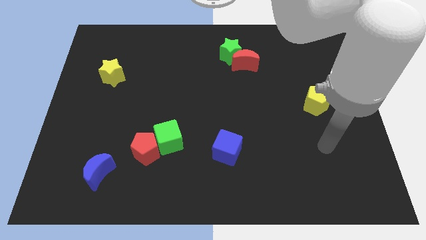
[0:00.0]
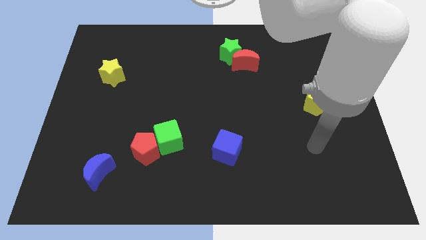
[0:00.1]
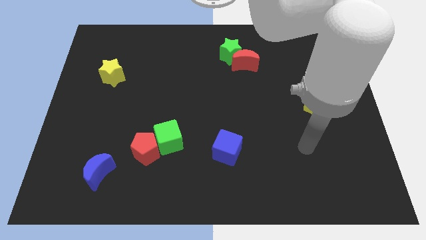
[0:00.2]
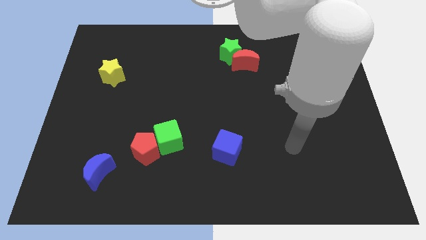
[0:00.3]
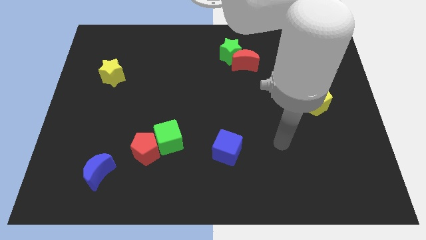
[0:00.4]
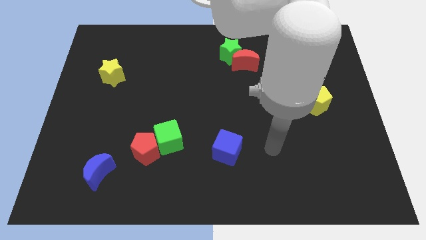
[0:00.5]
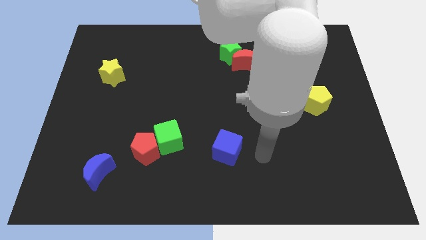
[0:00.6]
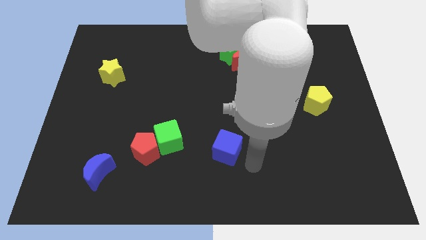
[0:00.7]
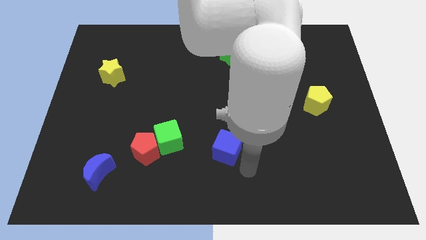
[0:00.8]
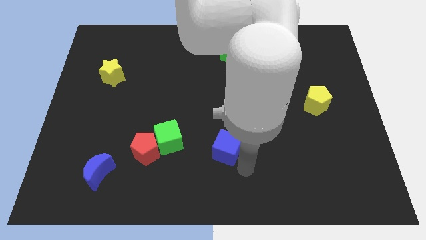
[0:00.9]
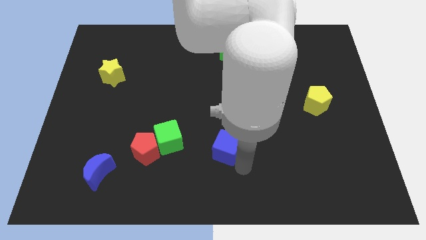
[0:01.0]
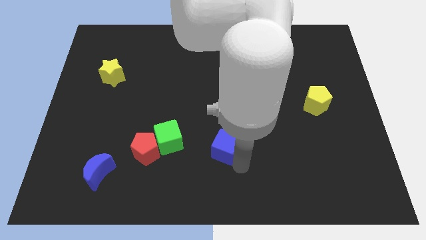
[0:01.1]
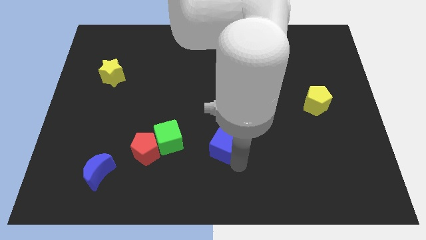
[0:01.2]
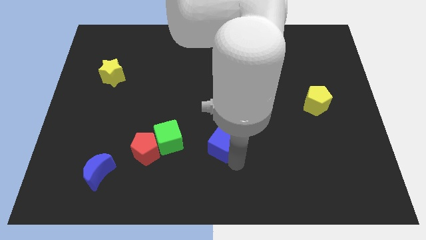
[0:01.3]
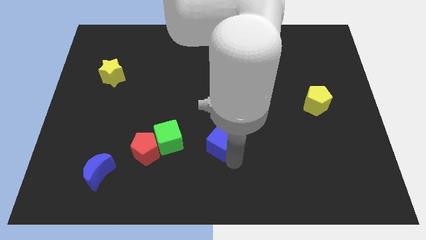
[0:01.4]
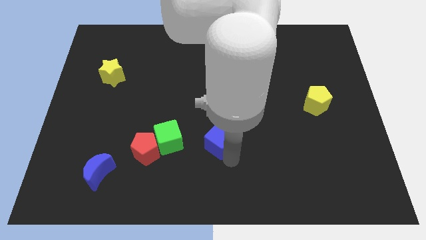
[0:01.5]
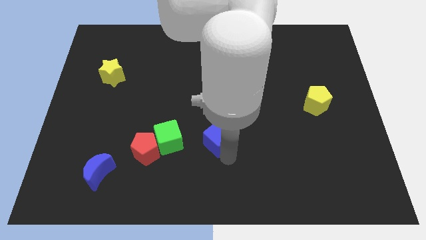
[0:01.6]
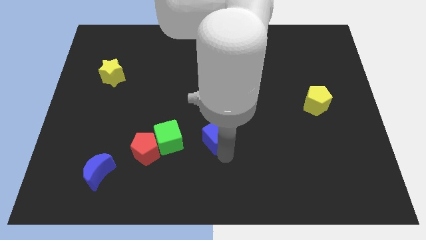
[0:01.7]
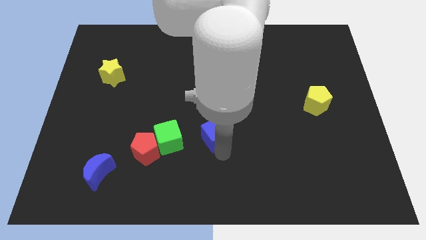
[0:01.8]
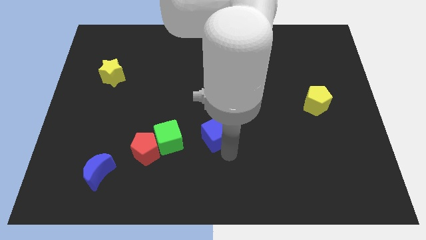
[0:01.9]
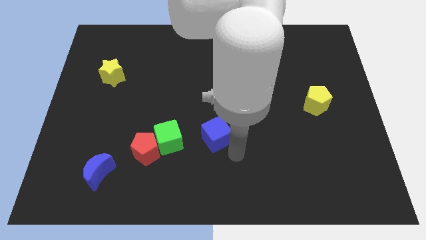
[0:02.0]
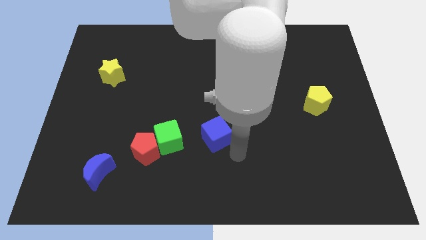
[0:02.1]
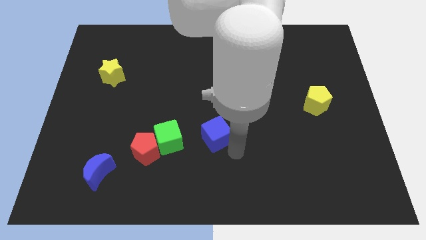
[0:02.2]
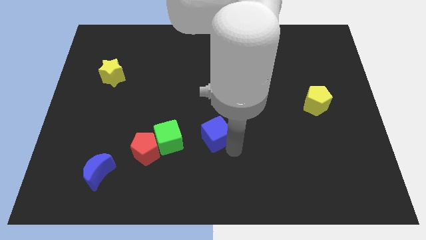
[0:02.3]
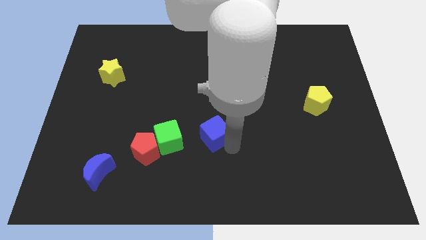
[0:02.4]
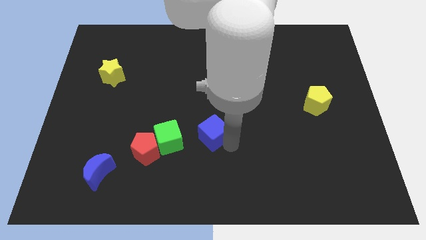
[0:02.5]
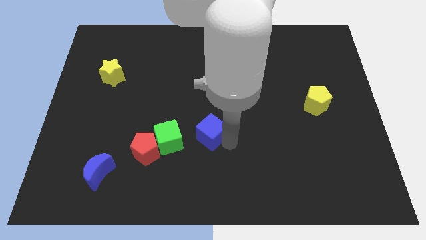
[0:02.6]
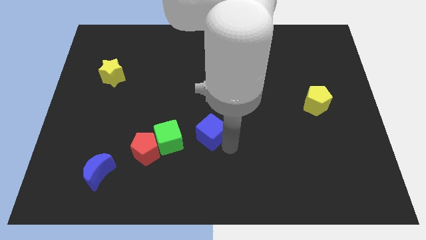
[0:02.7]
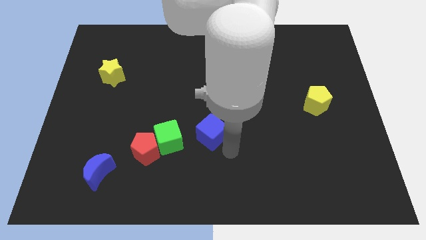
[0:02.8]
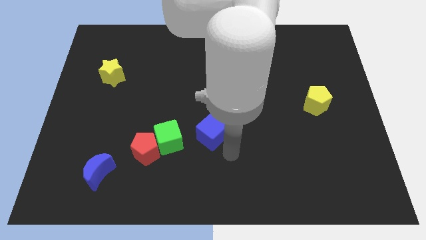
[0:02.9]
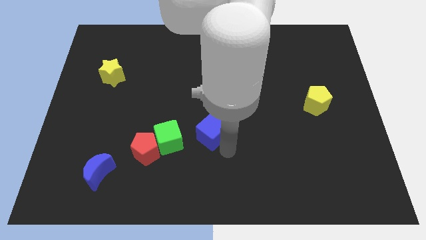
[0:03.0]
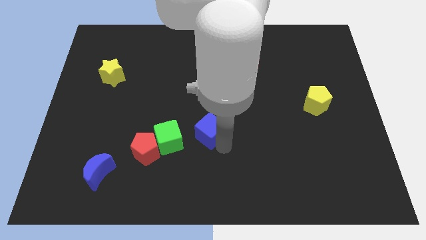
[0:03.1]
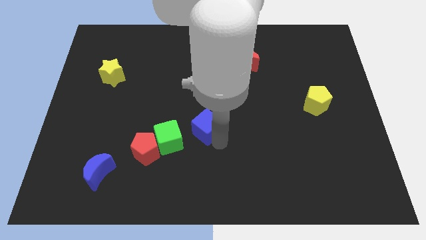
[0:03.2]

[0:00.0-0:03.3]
slide the blue cube a bit upwards and then to the left

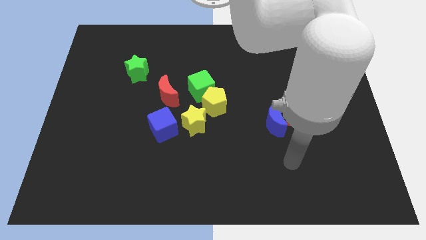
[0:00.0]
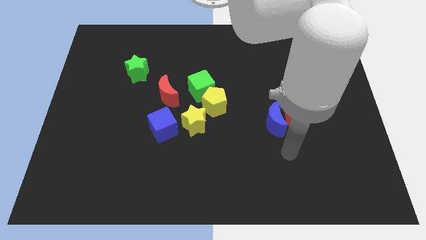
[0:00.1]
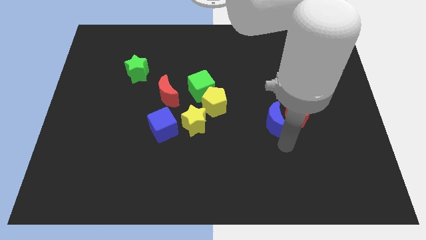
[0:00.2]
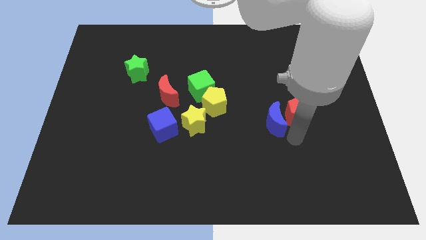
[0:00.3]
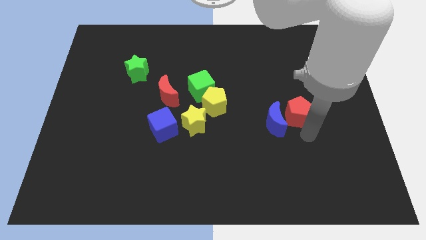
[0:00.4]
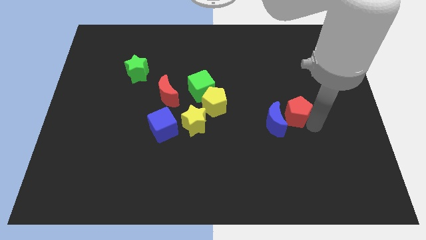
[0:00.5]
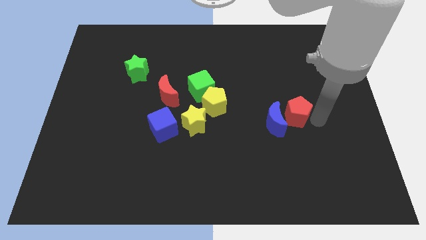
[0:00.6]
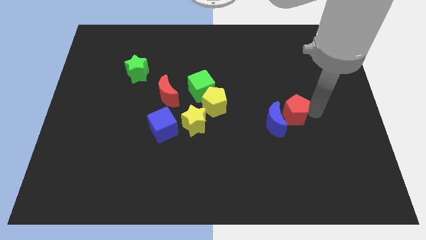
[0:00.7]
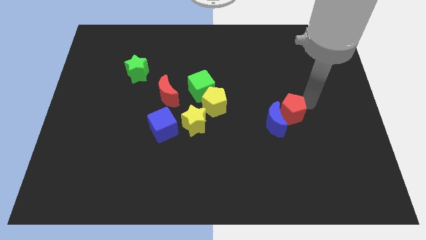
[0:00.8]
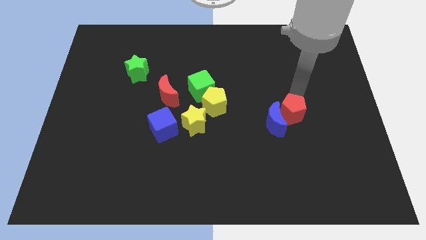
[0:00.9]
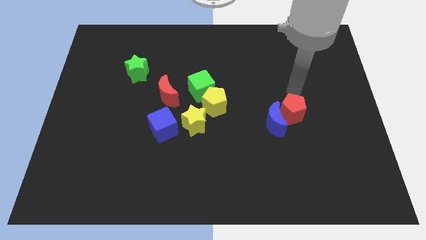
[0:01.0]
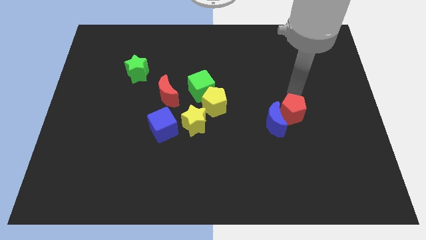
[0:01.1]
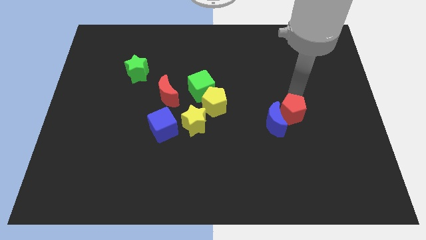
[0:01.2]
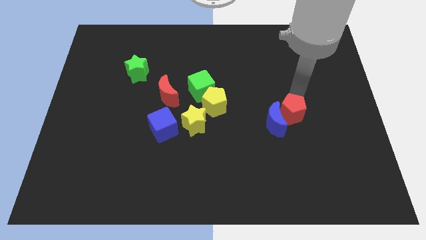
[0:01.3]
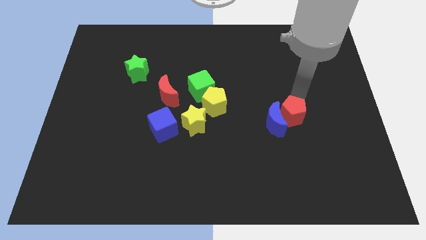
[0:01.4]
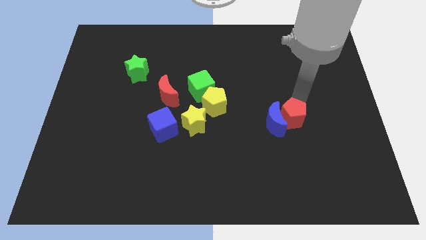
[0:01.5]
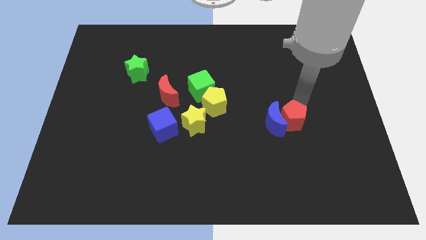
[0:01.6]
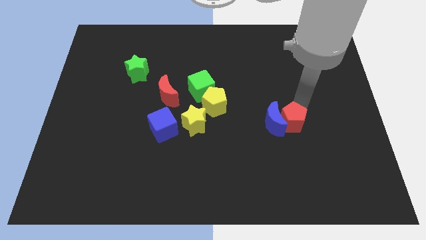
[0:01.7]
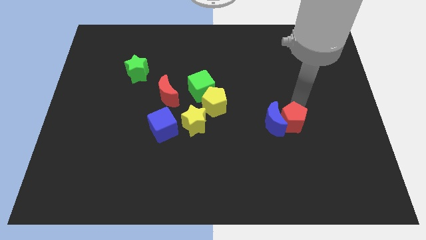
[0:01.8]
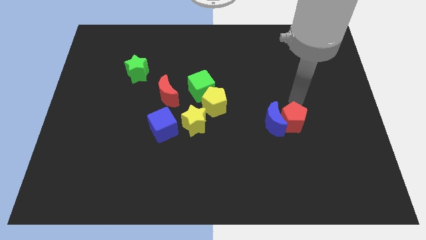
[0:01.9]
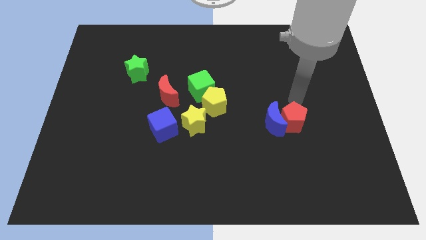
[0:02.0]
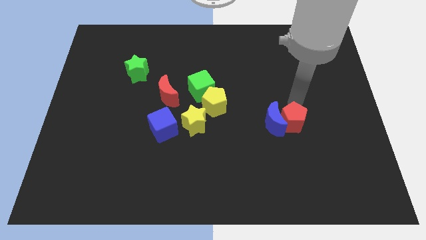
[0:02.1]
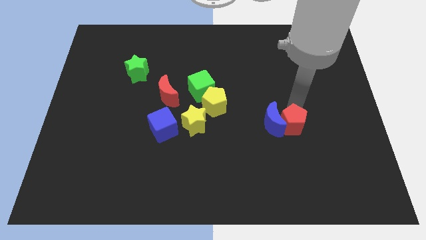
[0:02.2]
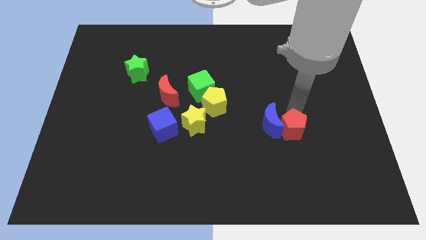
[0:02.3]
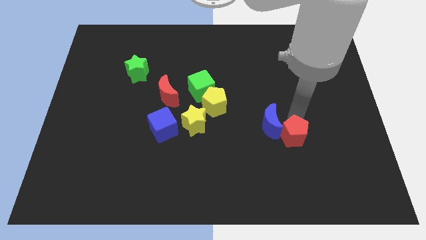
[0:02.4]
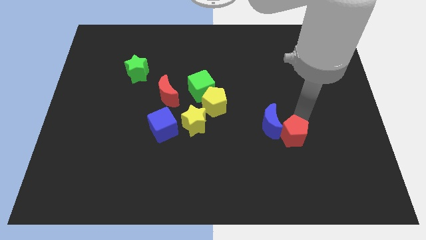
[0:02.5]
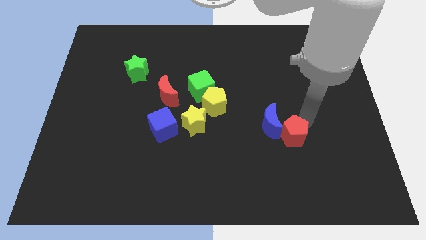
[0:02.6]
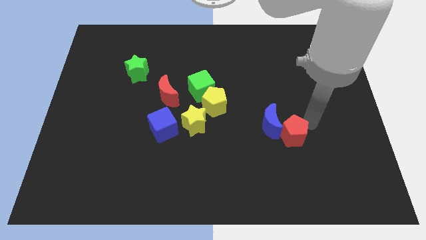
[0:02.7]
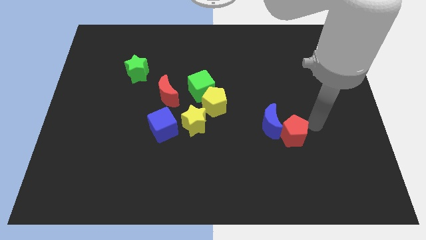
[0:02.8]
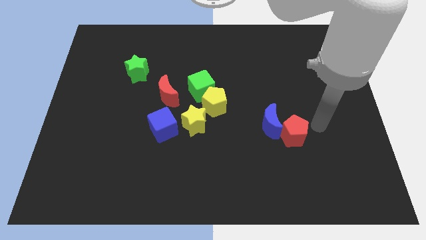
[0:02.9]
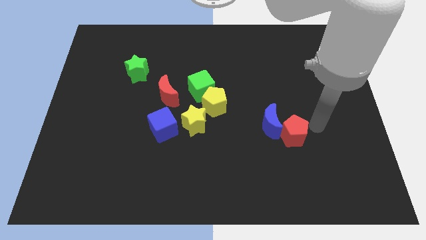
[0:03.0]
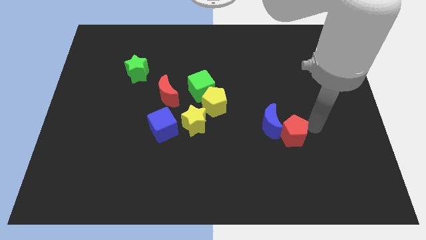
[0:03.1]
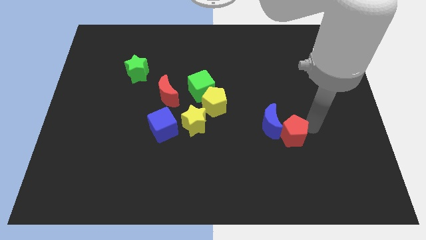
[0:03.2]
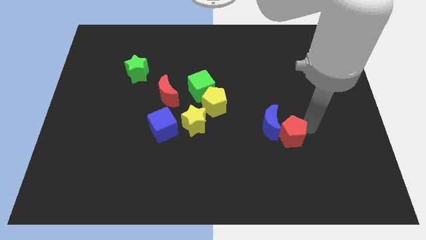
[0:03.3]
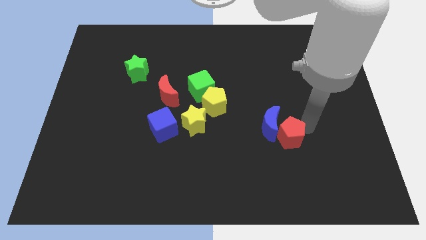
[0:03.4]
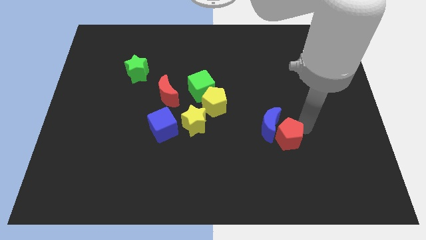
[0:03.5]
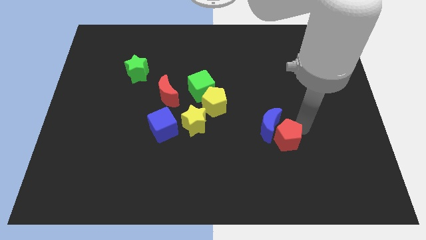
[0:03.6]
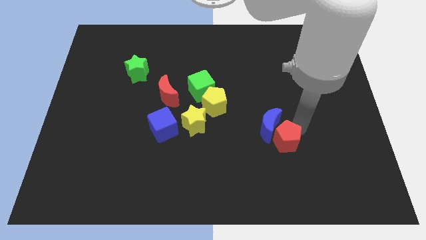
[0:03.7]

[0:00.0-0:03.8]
move the red pentagon diagonally downwards and left a little bit

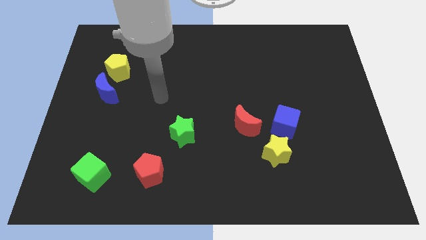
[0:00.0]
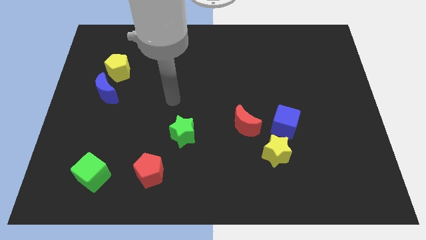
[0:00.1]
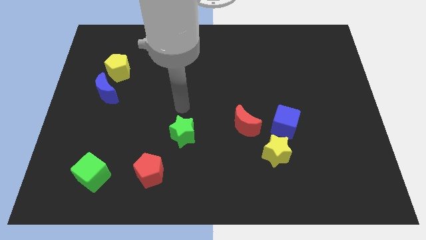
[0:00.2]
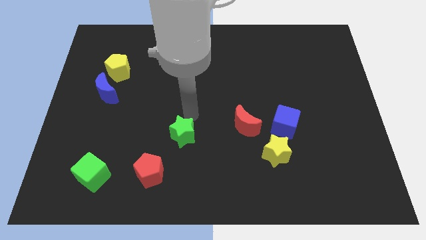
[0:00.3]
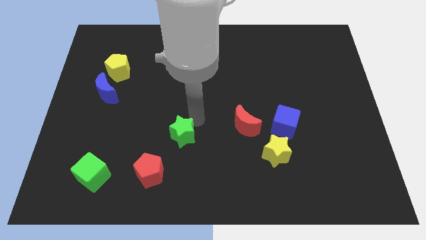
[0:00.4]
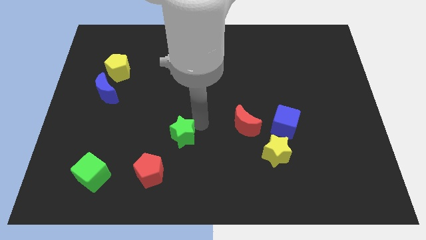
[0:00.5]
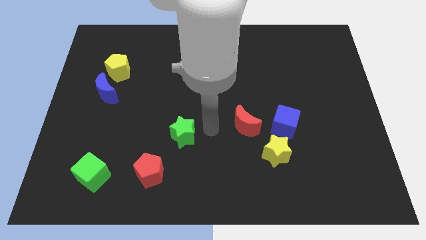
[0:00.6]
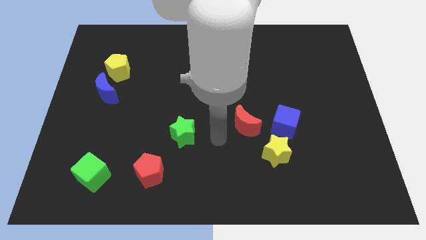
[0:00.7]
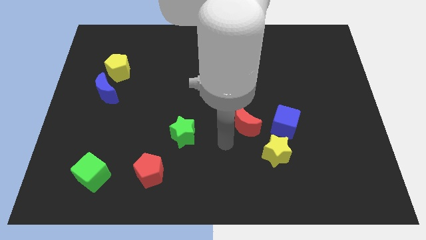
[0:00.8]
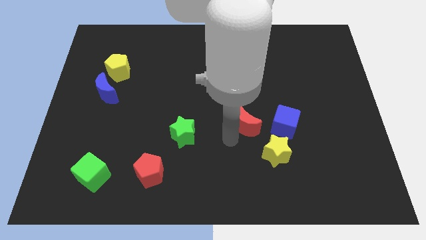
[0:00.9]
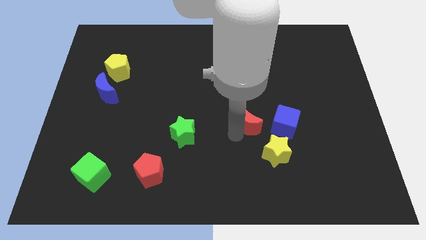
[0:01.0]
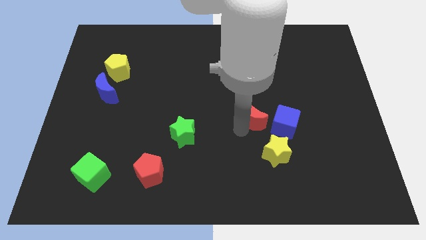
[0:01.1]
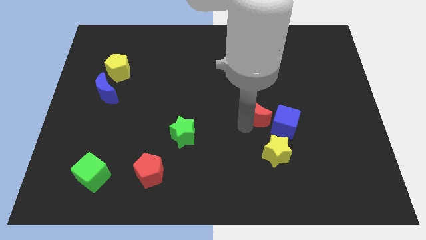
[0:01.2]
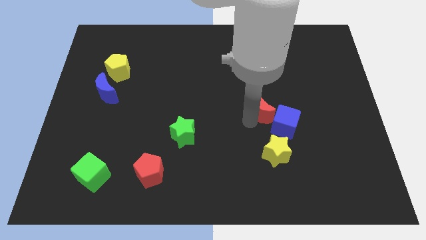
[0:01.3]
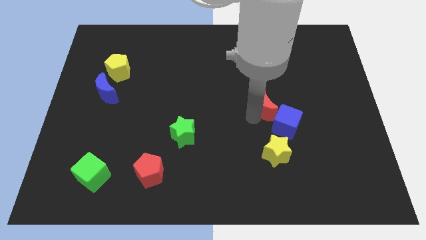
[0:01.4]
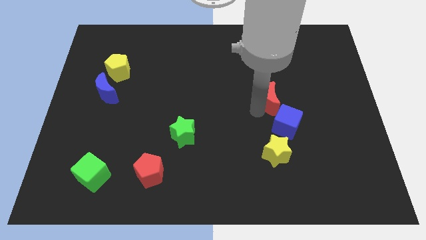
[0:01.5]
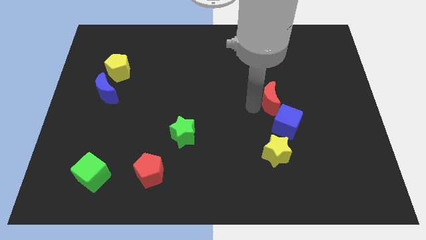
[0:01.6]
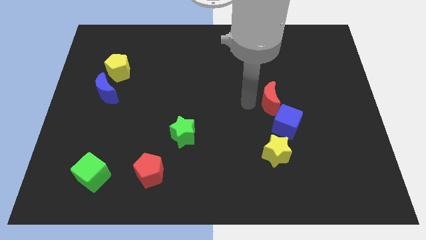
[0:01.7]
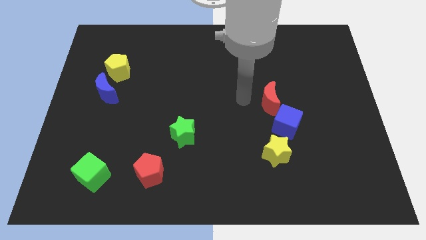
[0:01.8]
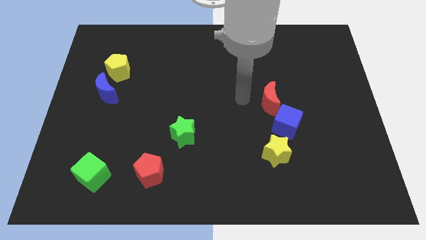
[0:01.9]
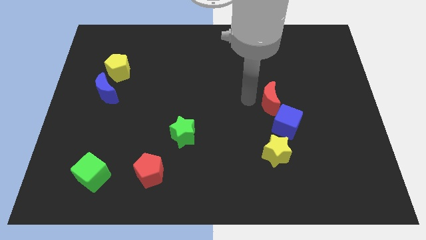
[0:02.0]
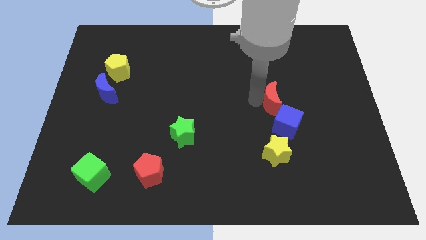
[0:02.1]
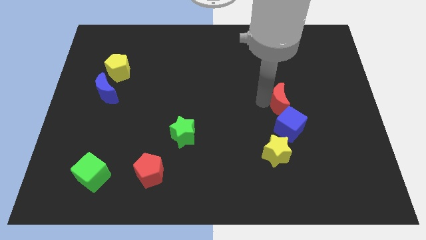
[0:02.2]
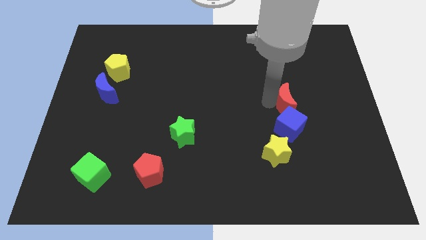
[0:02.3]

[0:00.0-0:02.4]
push the red moon right a bit
